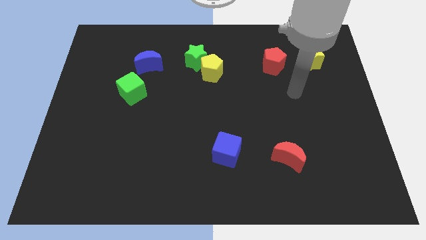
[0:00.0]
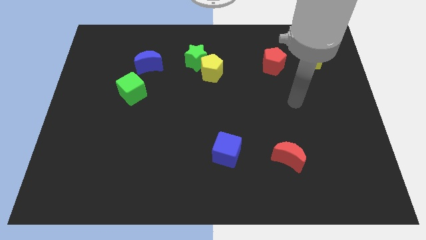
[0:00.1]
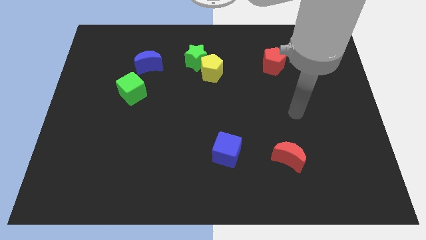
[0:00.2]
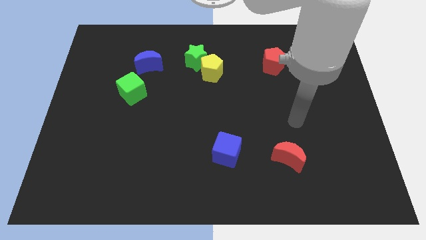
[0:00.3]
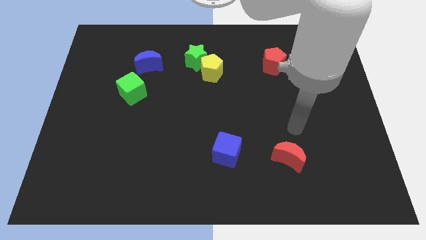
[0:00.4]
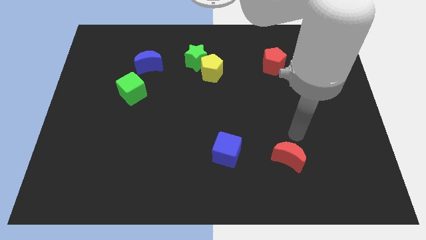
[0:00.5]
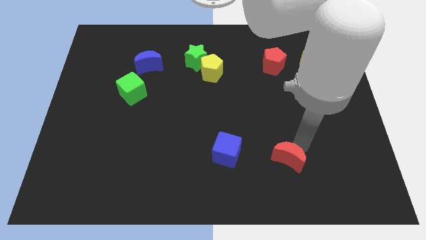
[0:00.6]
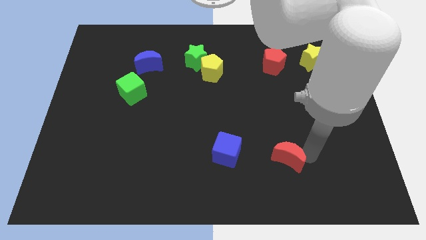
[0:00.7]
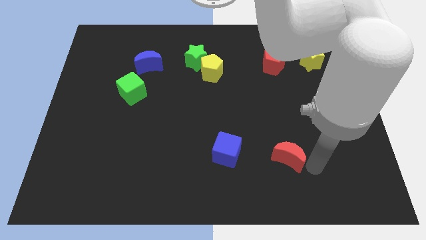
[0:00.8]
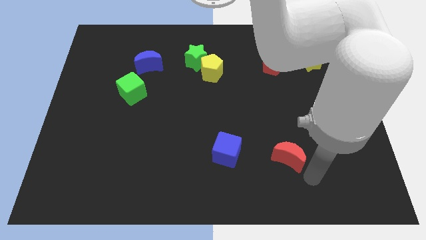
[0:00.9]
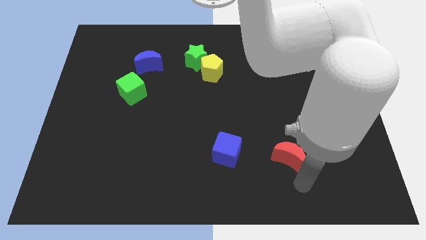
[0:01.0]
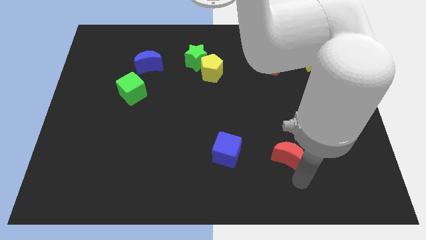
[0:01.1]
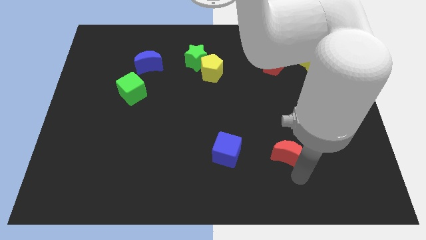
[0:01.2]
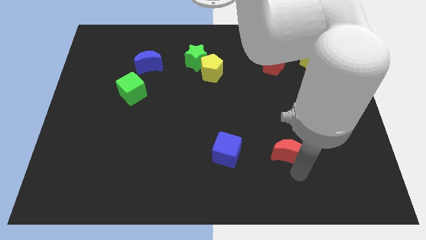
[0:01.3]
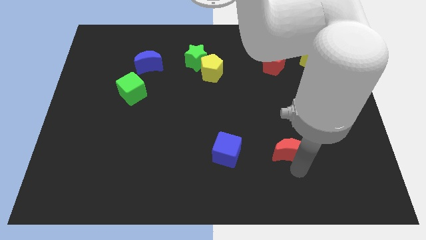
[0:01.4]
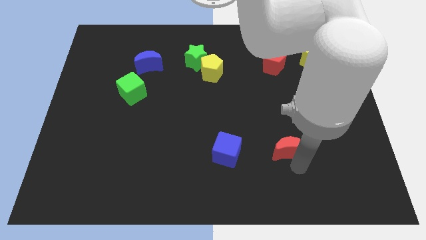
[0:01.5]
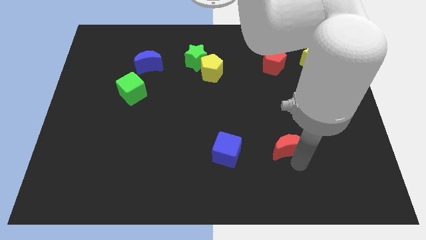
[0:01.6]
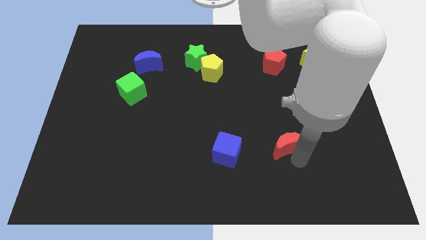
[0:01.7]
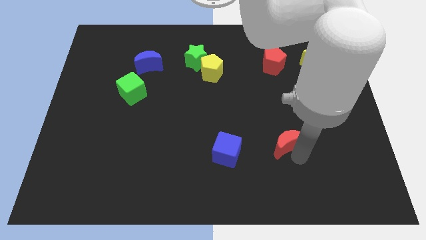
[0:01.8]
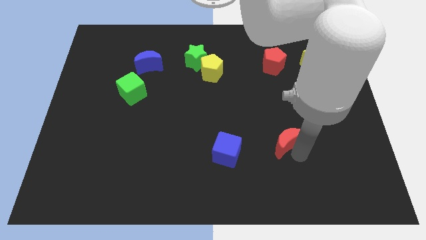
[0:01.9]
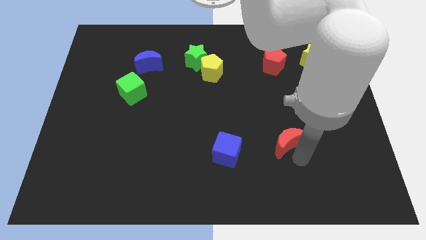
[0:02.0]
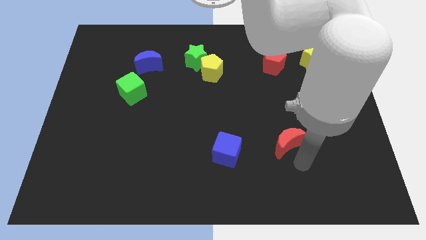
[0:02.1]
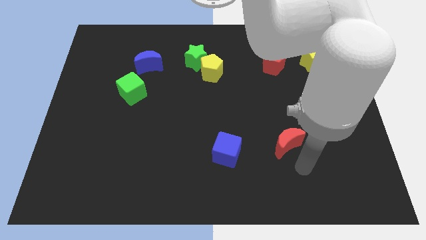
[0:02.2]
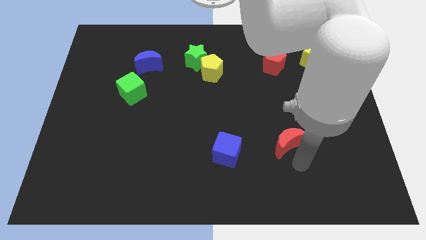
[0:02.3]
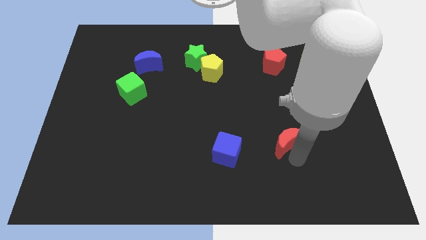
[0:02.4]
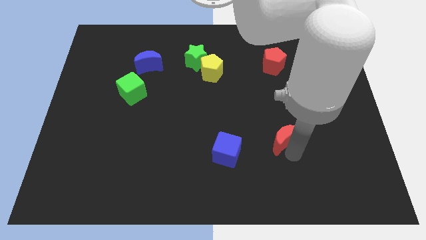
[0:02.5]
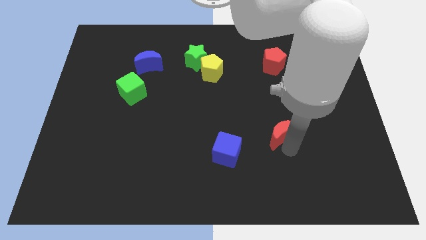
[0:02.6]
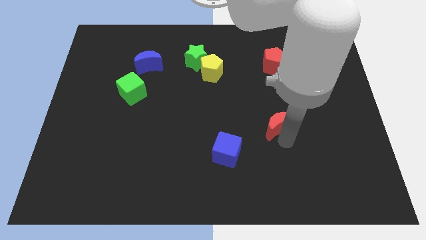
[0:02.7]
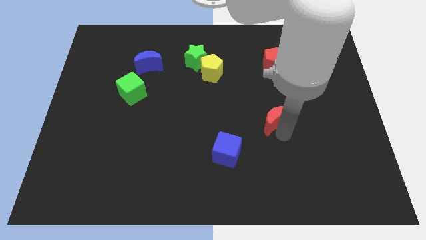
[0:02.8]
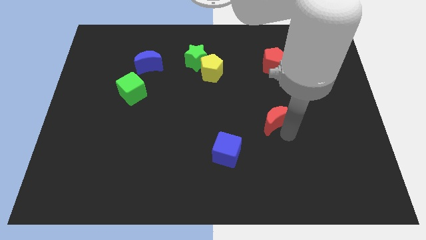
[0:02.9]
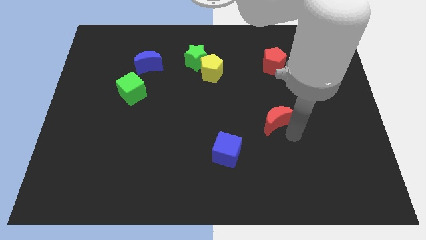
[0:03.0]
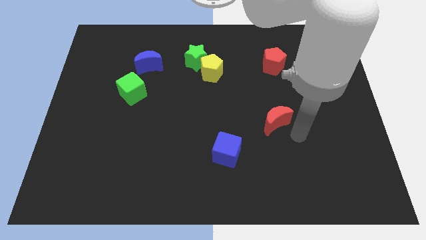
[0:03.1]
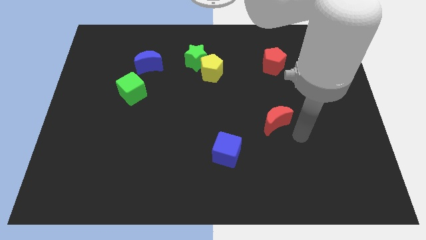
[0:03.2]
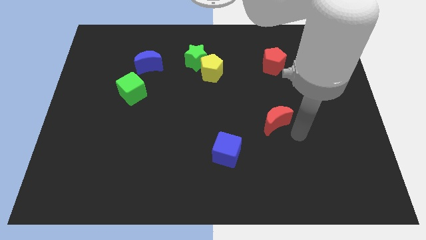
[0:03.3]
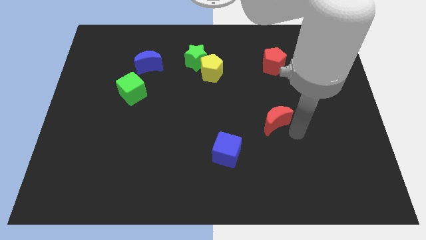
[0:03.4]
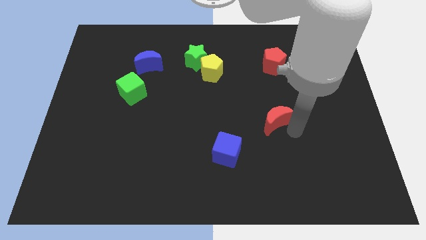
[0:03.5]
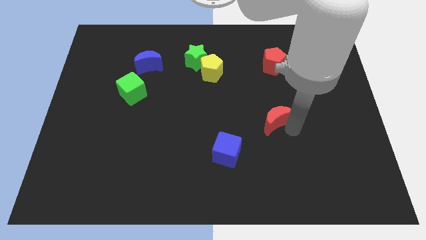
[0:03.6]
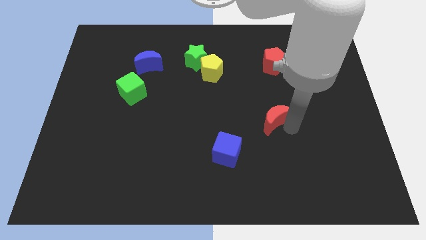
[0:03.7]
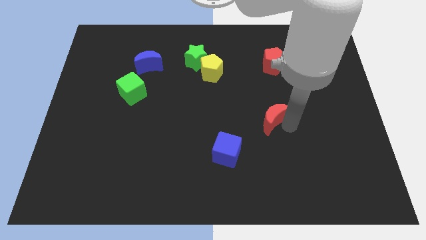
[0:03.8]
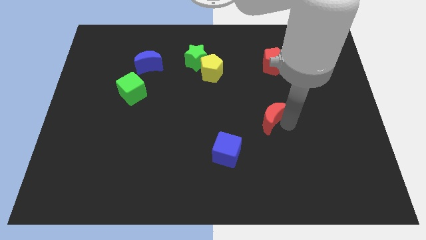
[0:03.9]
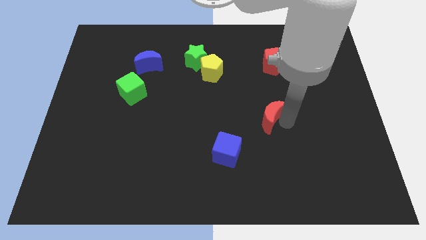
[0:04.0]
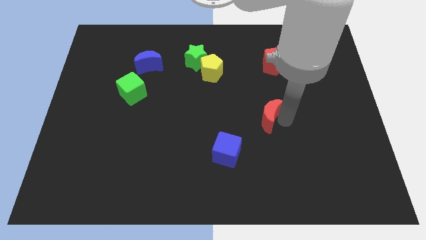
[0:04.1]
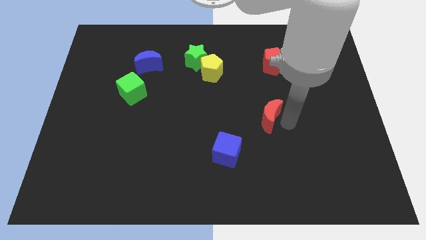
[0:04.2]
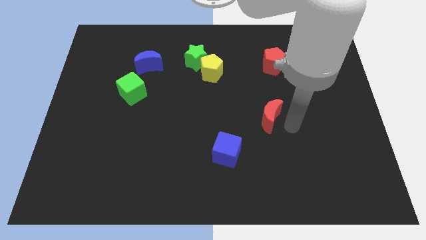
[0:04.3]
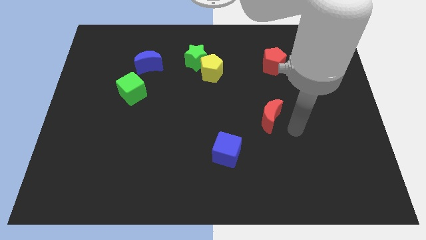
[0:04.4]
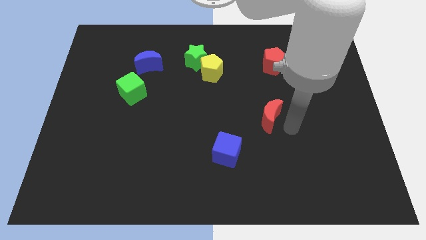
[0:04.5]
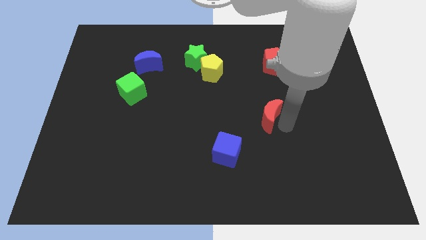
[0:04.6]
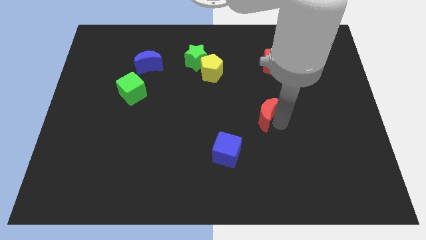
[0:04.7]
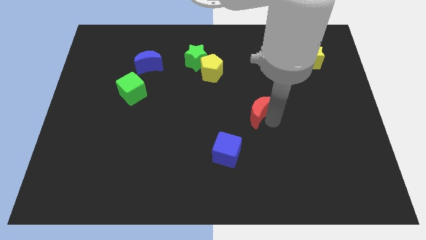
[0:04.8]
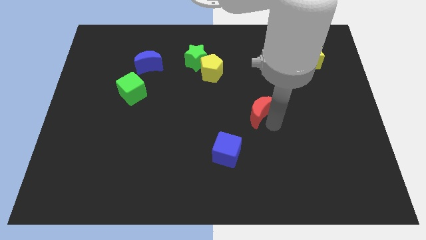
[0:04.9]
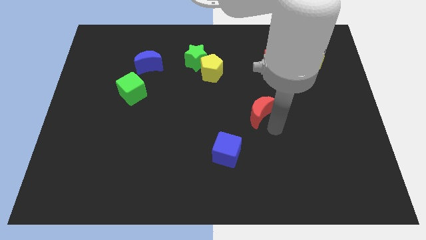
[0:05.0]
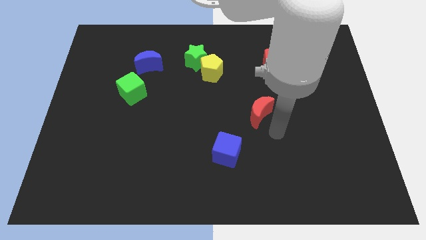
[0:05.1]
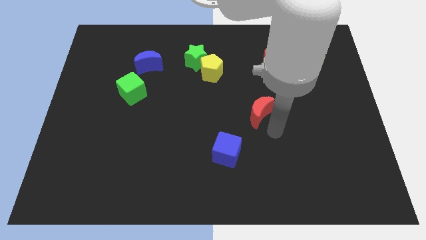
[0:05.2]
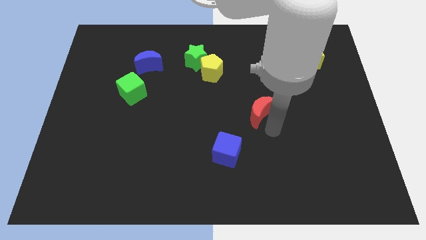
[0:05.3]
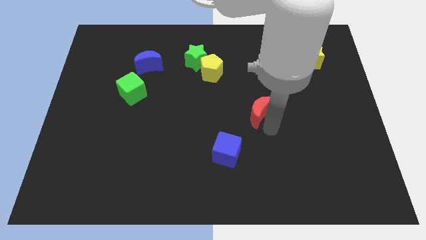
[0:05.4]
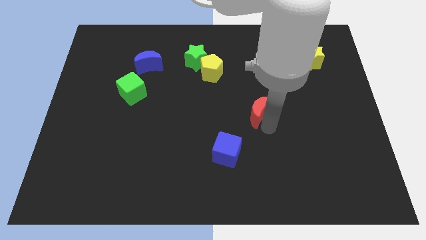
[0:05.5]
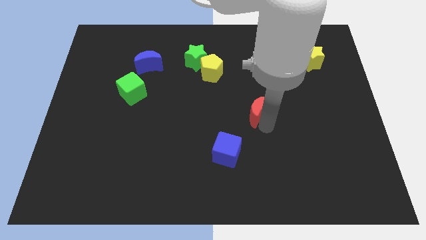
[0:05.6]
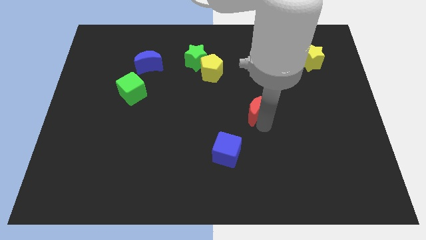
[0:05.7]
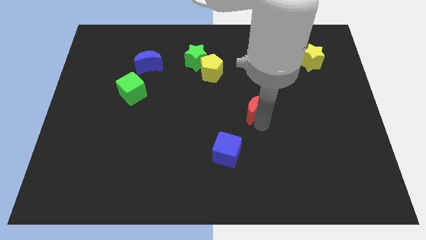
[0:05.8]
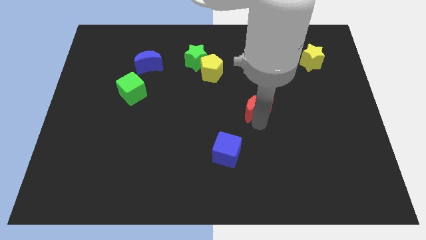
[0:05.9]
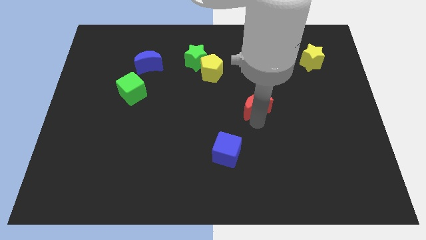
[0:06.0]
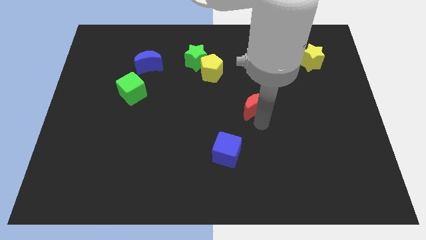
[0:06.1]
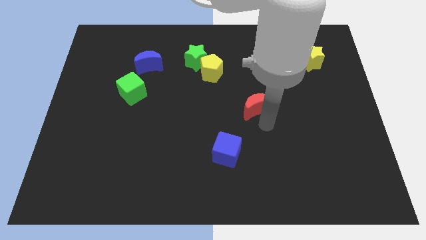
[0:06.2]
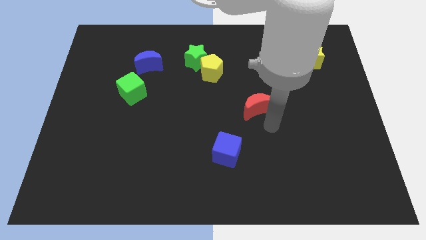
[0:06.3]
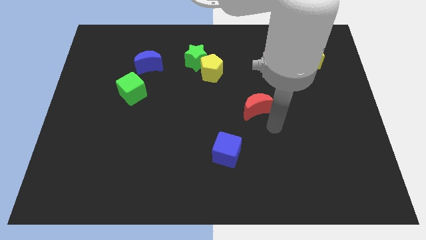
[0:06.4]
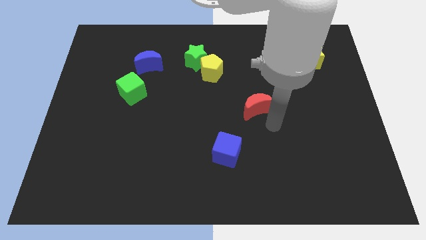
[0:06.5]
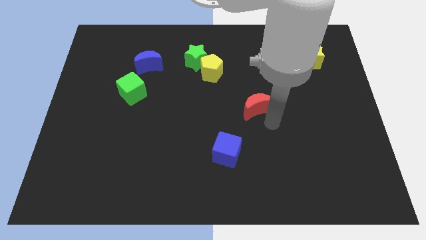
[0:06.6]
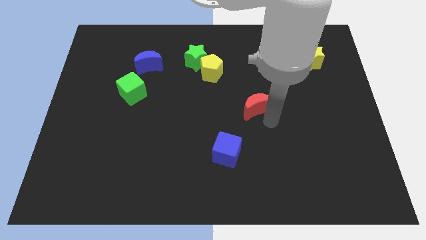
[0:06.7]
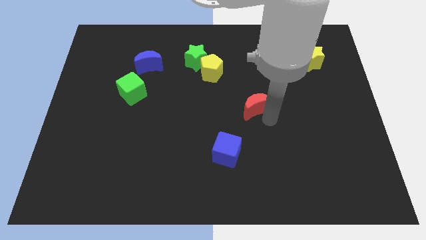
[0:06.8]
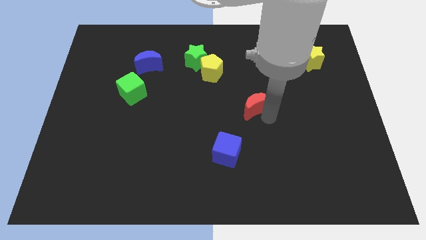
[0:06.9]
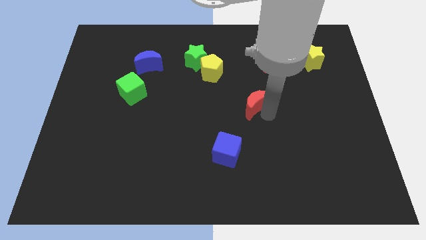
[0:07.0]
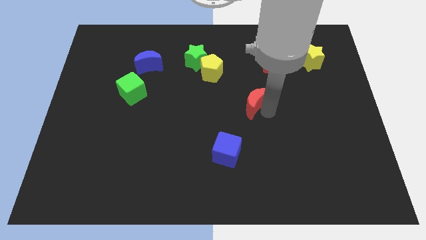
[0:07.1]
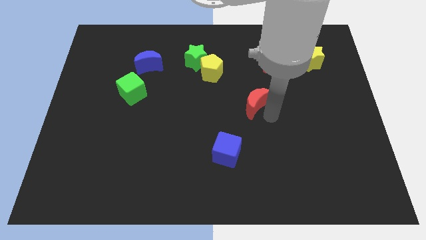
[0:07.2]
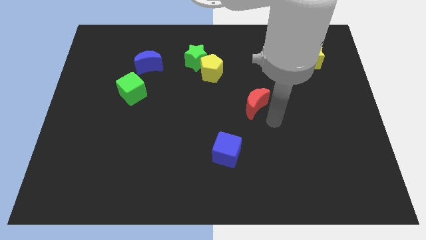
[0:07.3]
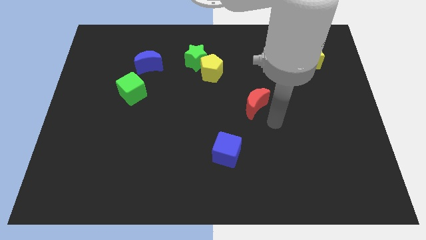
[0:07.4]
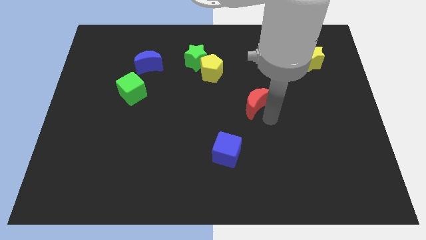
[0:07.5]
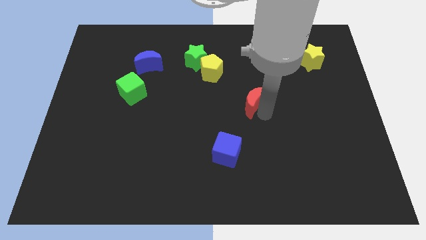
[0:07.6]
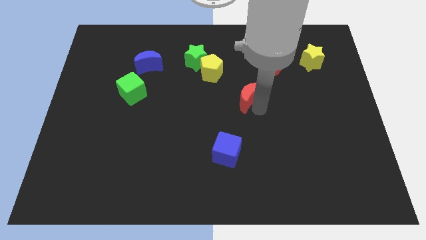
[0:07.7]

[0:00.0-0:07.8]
put the red moon diagonally down and to the right of the yellow pentagon
